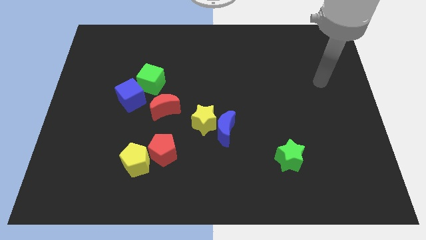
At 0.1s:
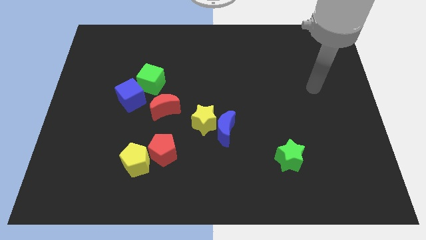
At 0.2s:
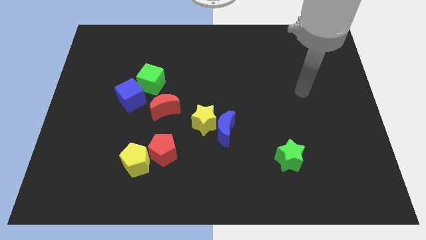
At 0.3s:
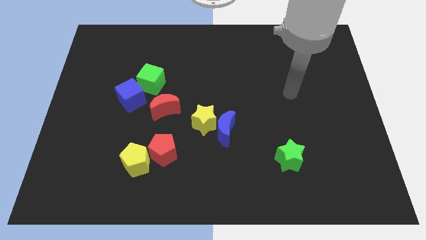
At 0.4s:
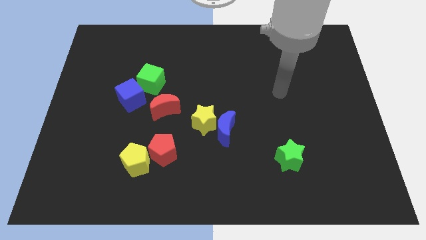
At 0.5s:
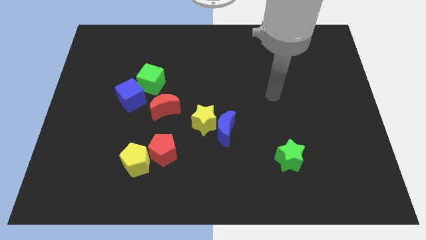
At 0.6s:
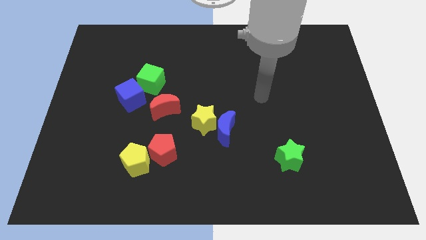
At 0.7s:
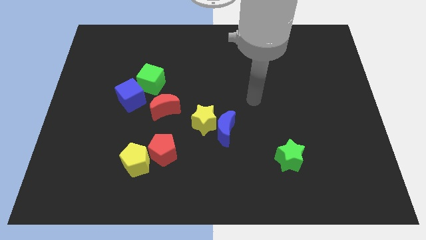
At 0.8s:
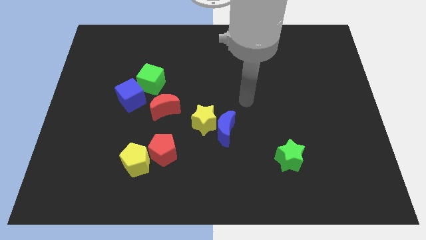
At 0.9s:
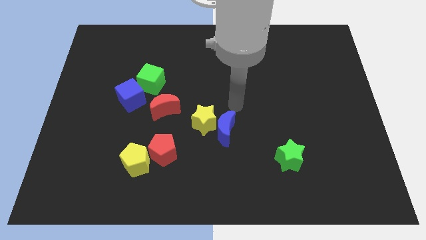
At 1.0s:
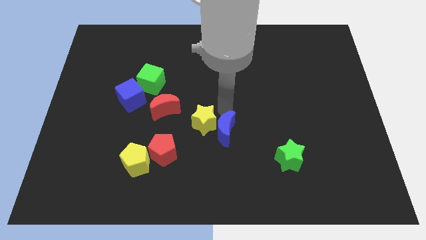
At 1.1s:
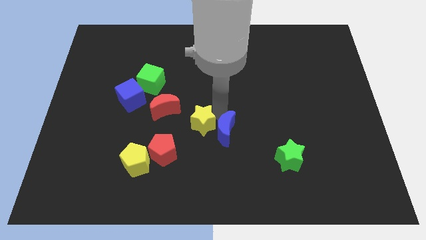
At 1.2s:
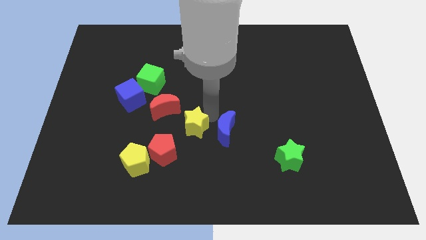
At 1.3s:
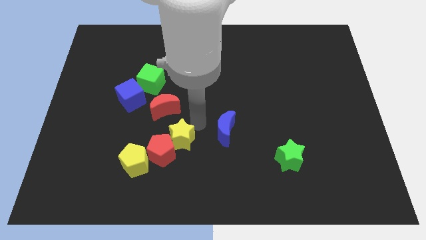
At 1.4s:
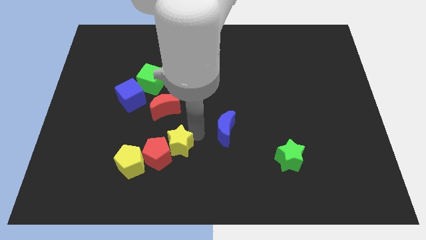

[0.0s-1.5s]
move the blue moon away from the yellow star

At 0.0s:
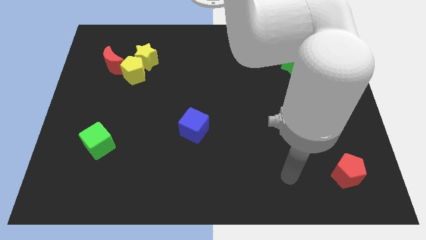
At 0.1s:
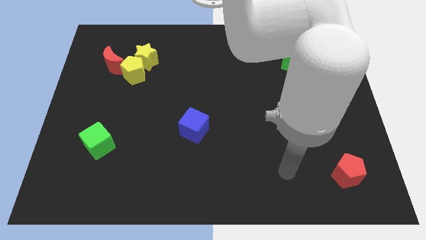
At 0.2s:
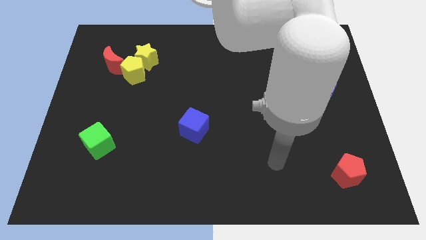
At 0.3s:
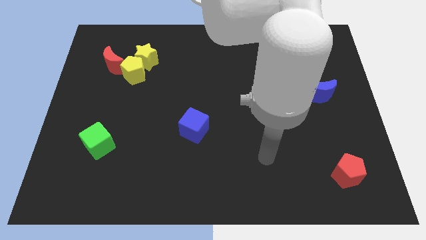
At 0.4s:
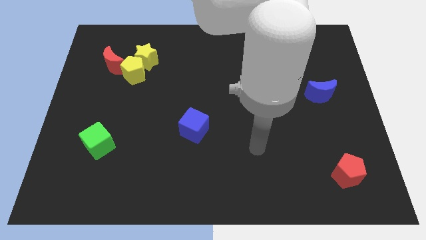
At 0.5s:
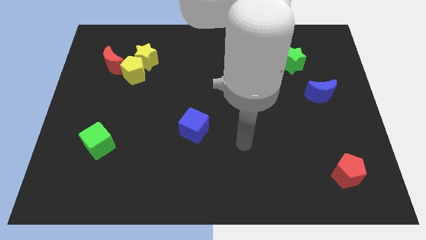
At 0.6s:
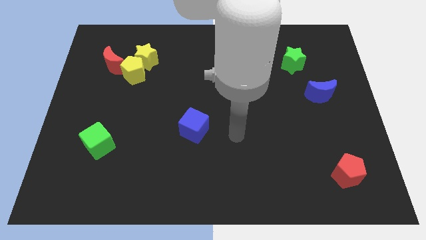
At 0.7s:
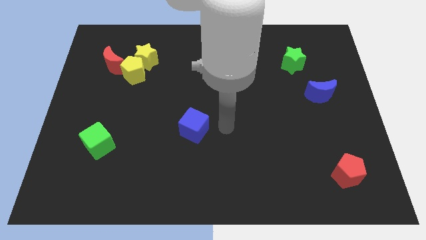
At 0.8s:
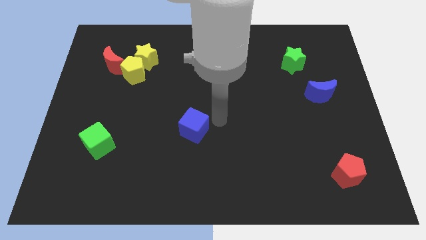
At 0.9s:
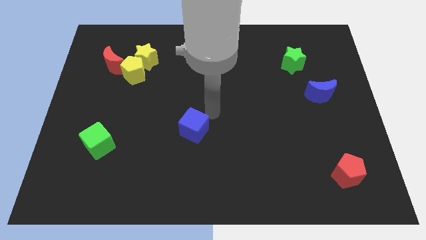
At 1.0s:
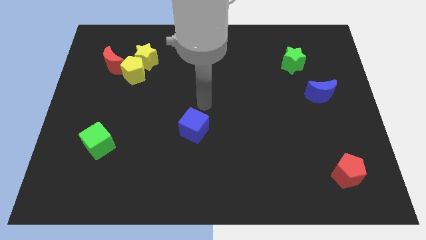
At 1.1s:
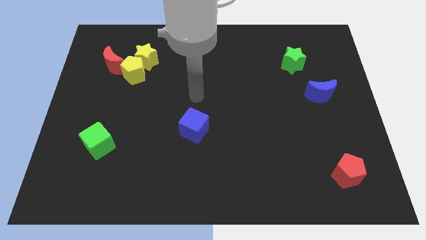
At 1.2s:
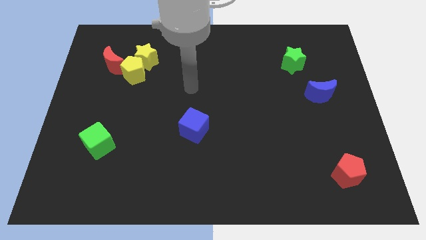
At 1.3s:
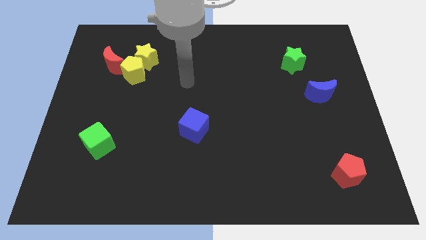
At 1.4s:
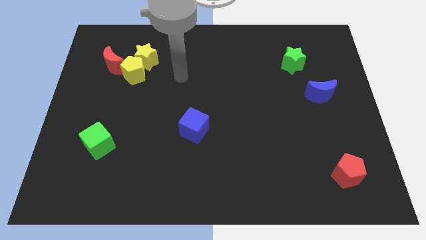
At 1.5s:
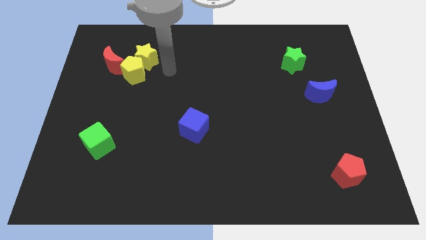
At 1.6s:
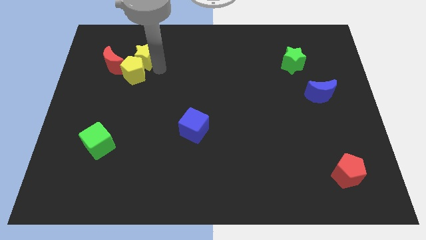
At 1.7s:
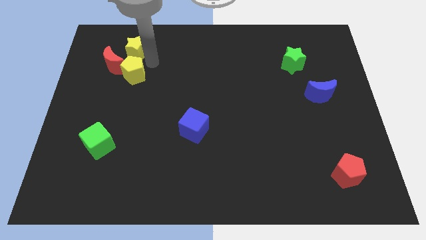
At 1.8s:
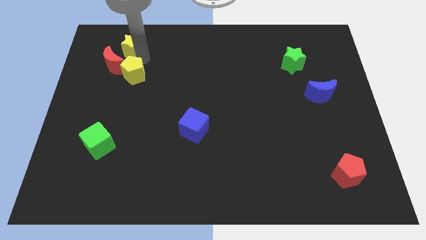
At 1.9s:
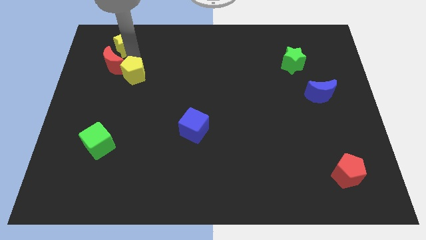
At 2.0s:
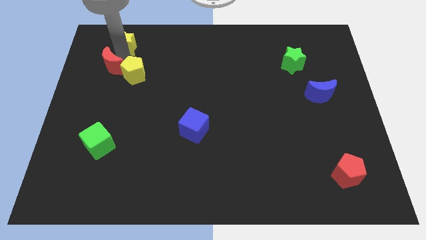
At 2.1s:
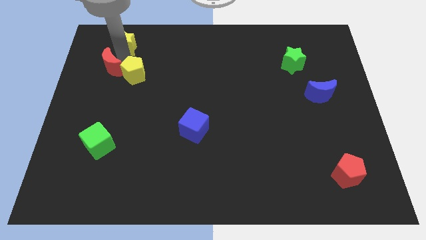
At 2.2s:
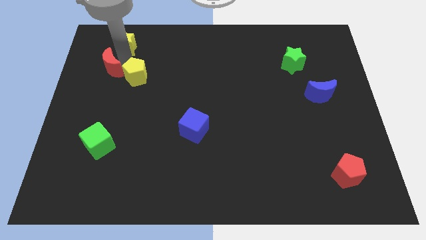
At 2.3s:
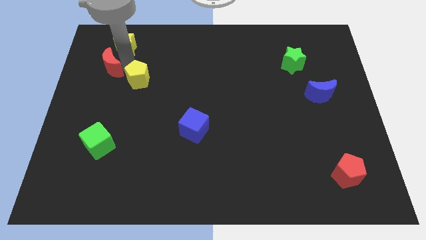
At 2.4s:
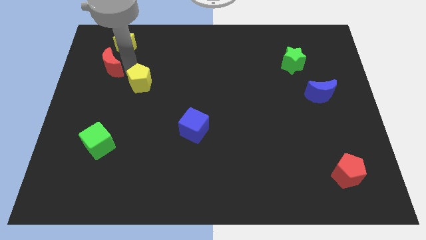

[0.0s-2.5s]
separate the yellow pentagon from the yellow star and red moon

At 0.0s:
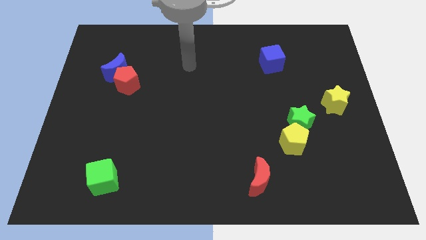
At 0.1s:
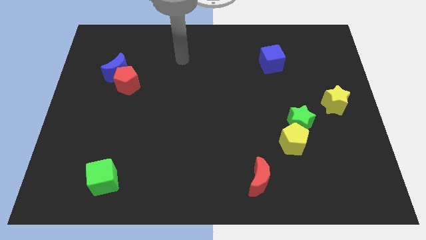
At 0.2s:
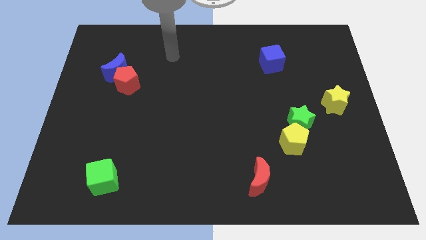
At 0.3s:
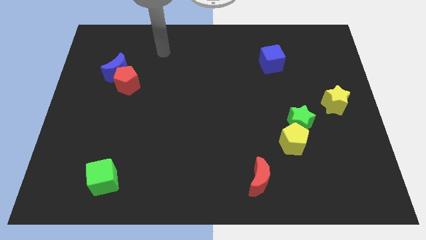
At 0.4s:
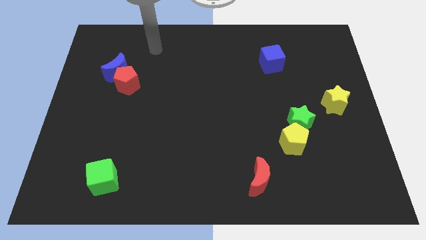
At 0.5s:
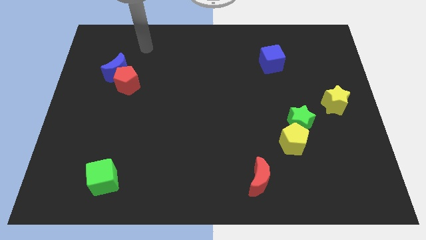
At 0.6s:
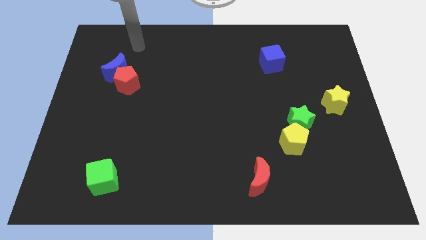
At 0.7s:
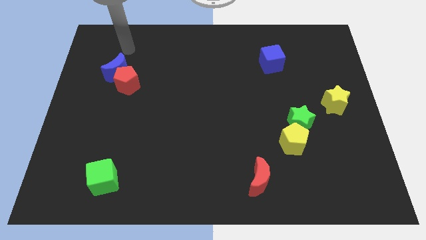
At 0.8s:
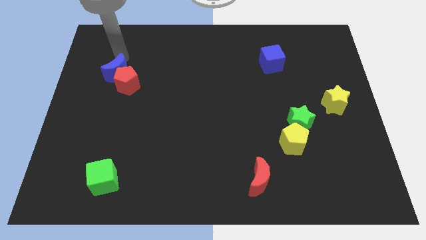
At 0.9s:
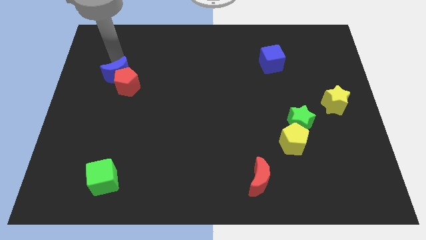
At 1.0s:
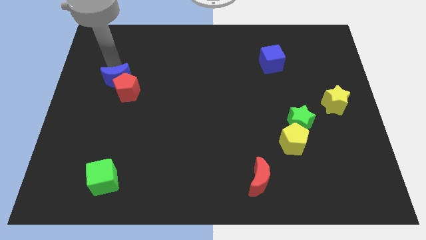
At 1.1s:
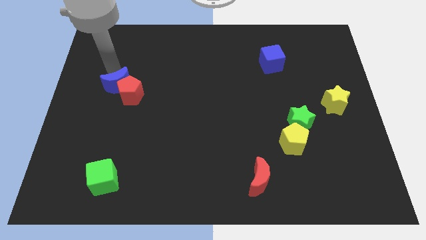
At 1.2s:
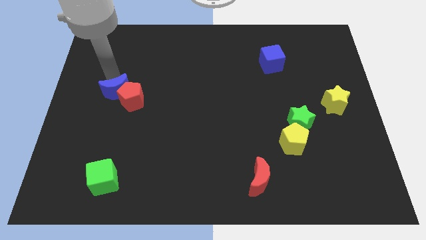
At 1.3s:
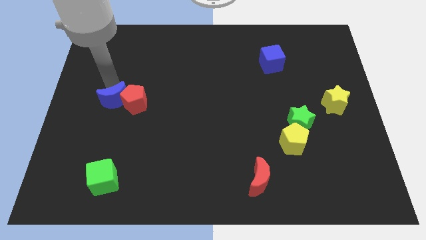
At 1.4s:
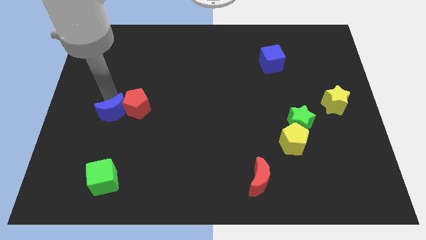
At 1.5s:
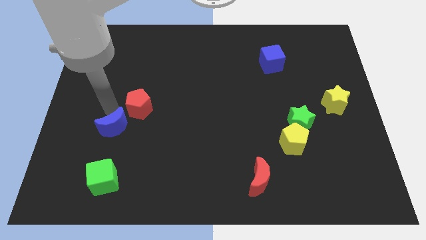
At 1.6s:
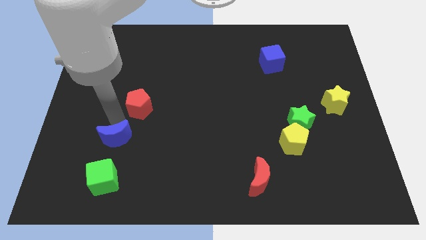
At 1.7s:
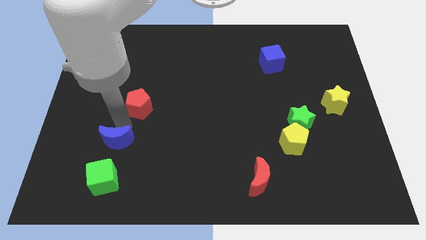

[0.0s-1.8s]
separate the red pentagon from the blue moon

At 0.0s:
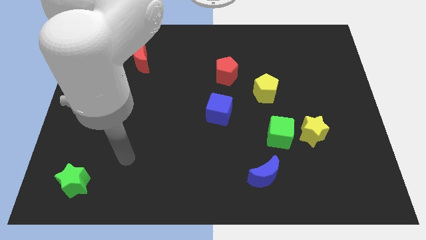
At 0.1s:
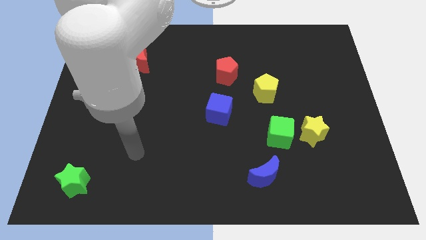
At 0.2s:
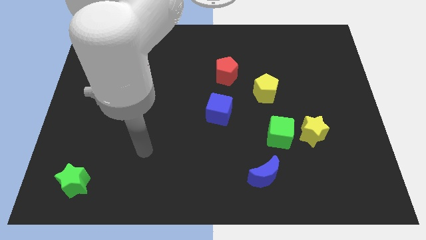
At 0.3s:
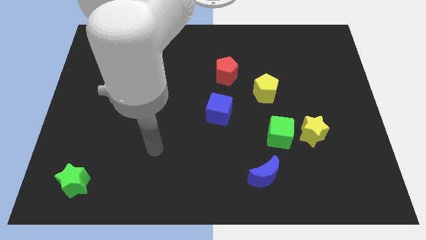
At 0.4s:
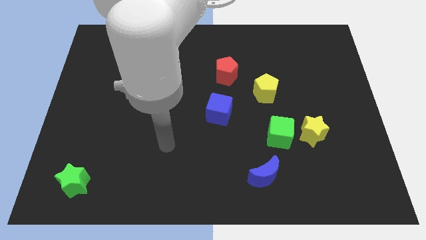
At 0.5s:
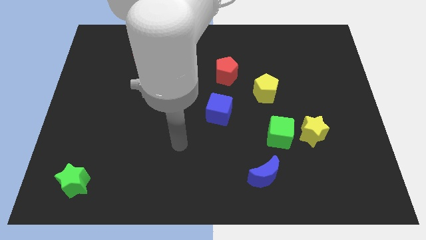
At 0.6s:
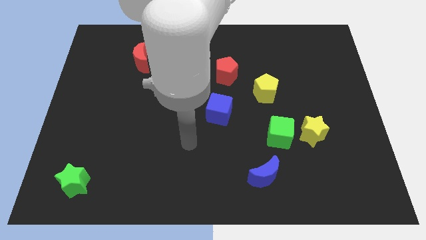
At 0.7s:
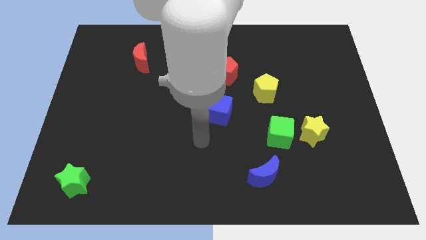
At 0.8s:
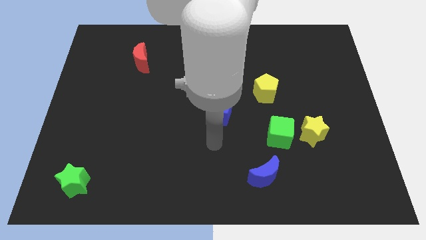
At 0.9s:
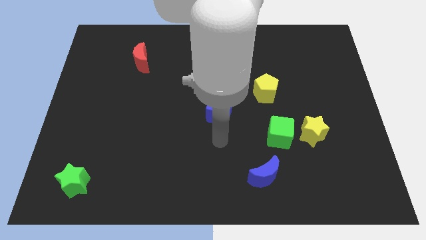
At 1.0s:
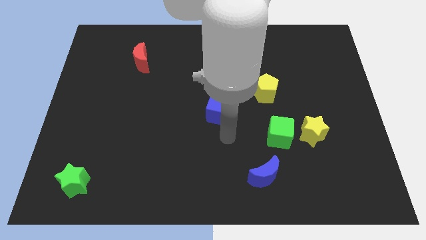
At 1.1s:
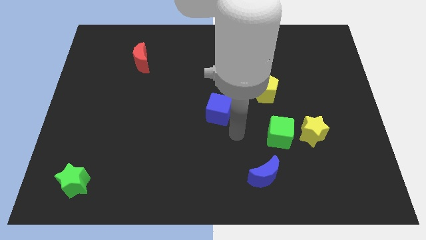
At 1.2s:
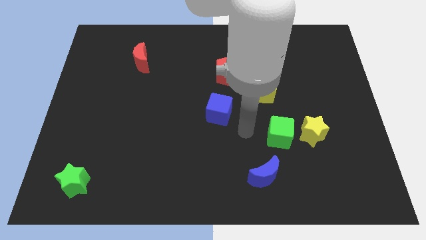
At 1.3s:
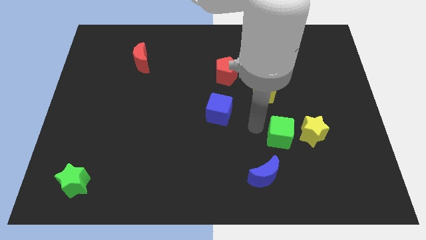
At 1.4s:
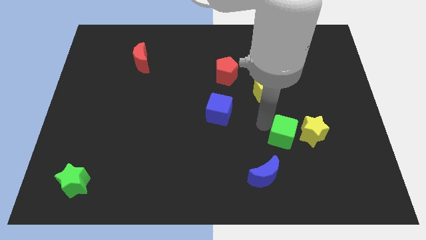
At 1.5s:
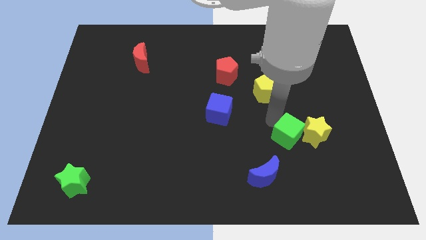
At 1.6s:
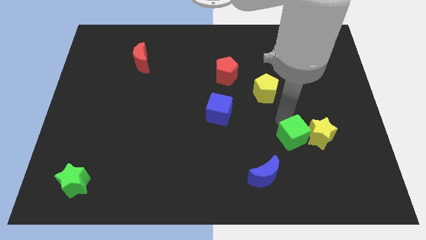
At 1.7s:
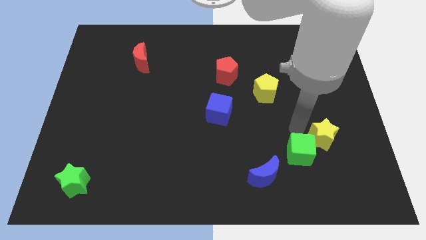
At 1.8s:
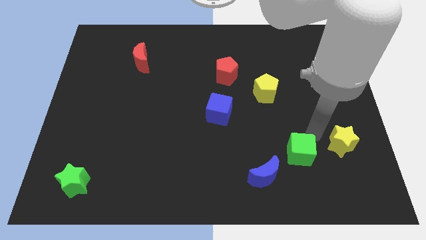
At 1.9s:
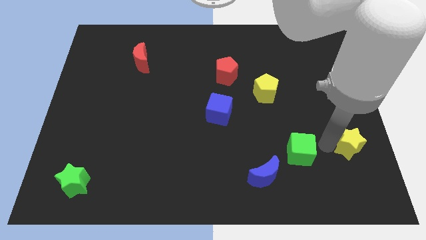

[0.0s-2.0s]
pull the green cube apart from the yellow star

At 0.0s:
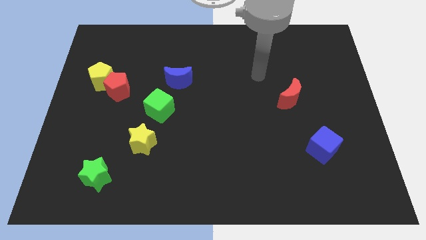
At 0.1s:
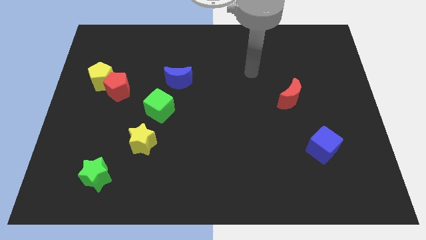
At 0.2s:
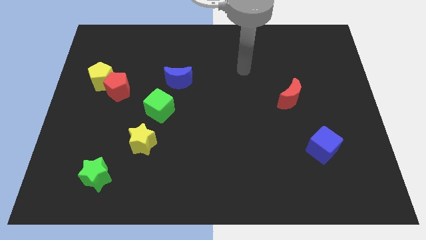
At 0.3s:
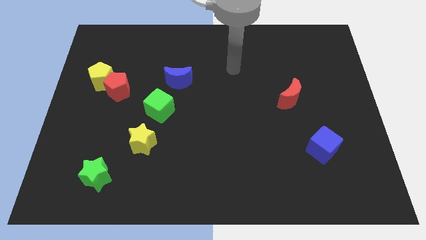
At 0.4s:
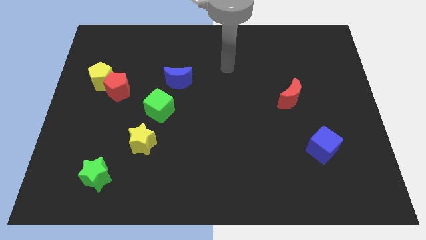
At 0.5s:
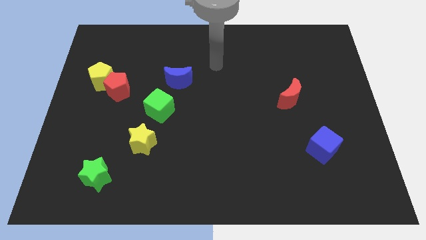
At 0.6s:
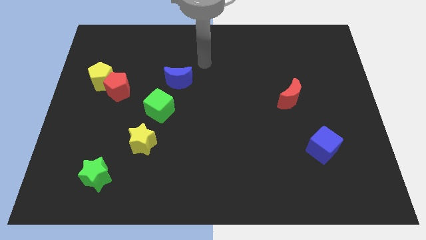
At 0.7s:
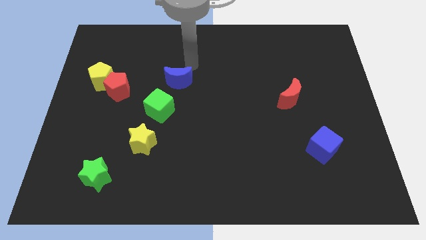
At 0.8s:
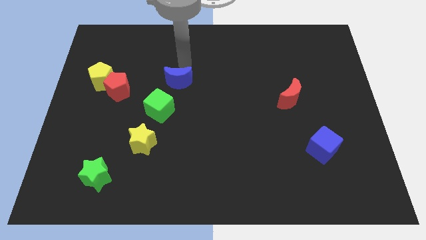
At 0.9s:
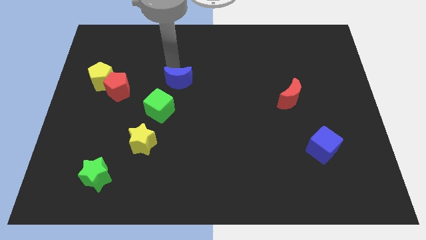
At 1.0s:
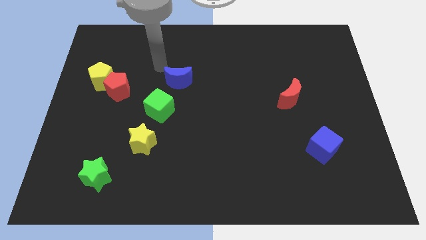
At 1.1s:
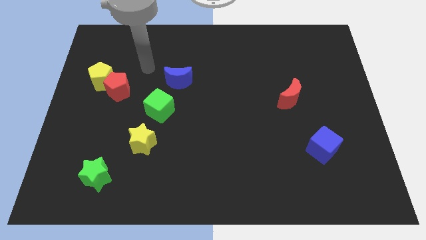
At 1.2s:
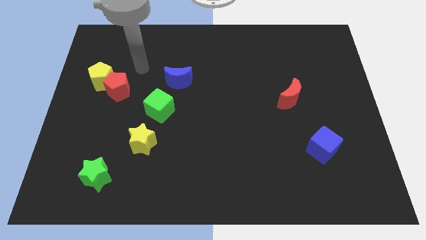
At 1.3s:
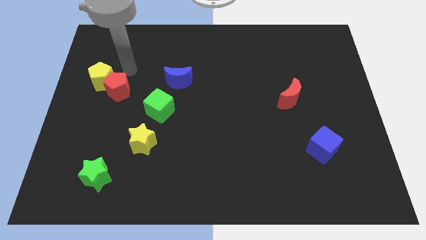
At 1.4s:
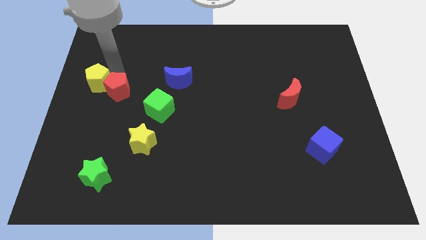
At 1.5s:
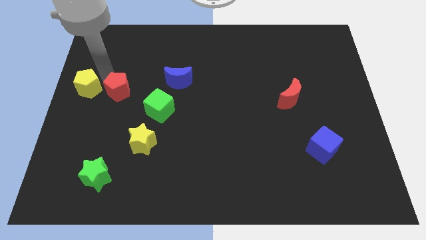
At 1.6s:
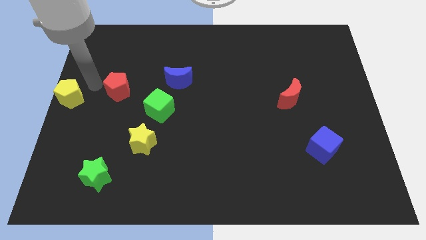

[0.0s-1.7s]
pull the red pentagon apart from the yellow pentagon

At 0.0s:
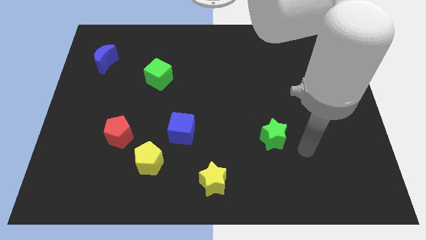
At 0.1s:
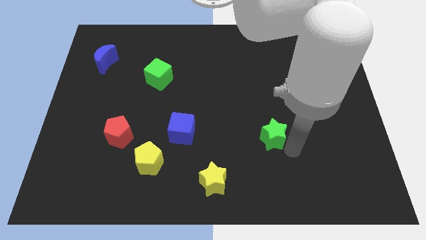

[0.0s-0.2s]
separate the blue cube from the yellow pentagon
